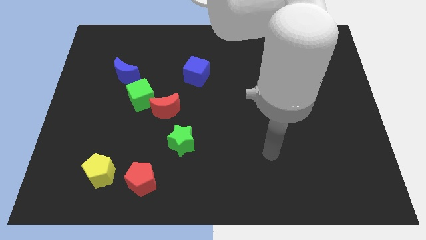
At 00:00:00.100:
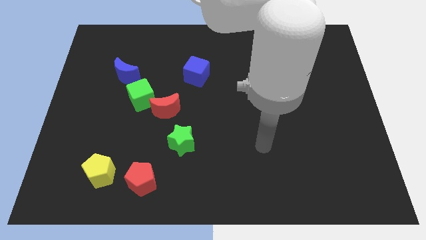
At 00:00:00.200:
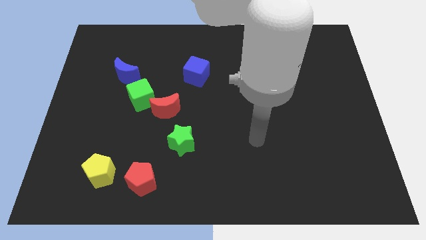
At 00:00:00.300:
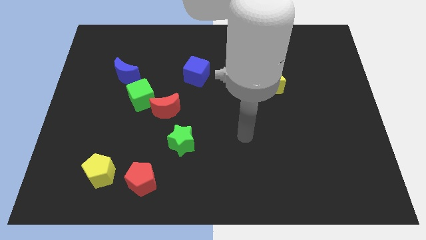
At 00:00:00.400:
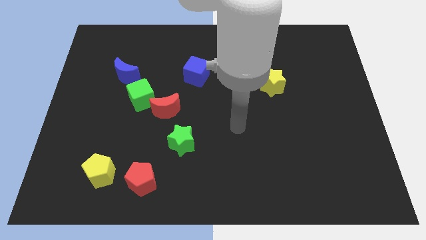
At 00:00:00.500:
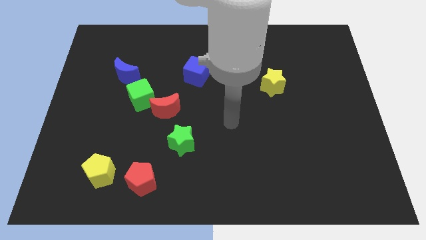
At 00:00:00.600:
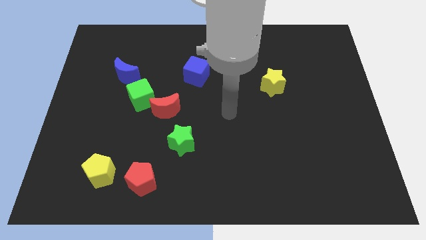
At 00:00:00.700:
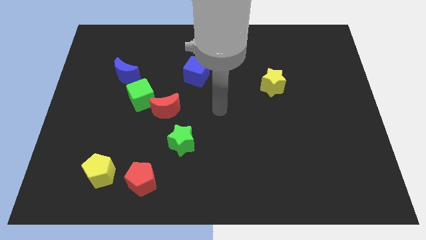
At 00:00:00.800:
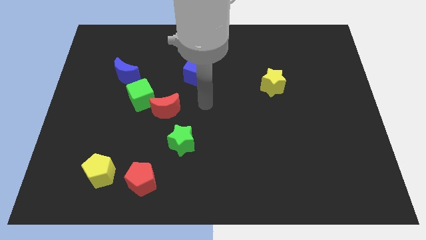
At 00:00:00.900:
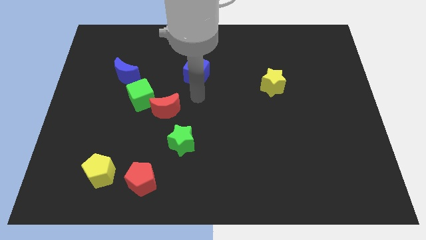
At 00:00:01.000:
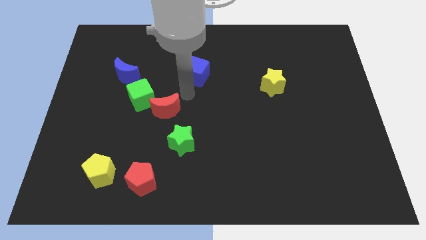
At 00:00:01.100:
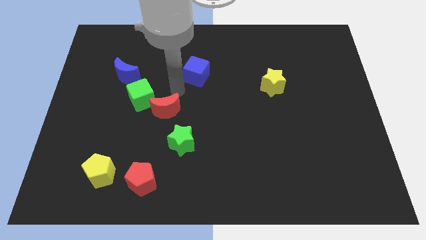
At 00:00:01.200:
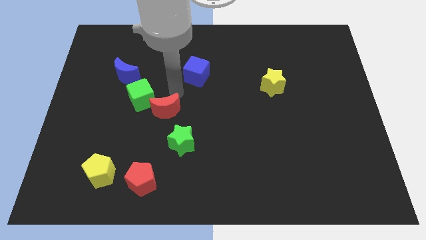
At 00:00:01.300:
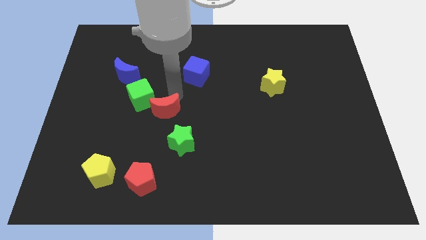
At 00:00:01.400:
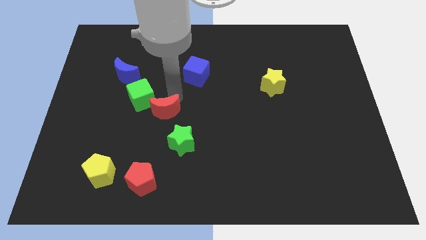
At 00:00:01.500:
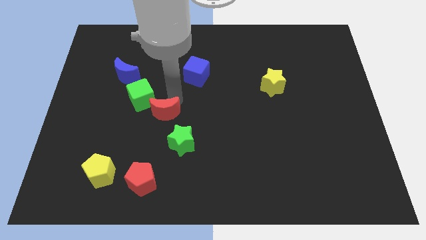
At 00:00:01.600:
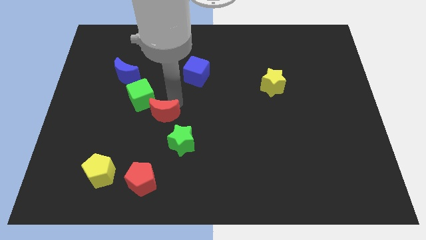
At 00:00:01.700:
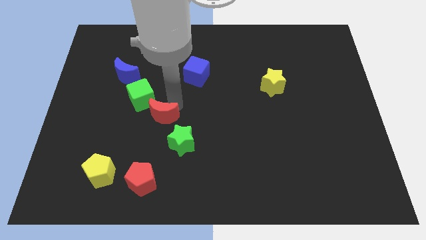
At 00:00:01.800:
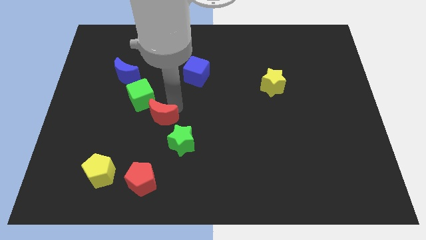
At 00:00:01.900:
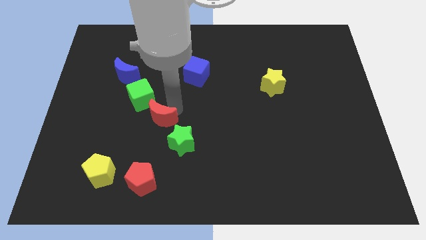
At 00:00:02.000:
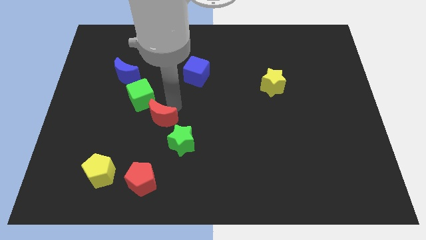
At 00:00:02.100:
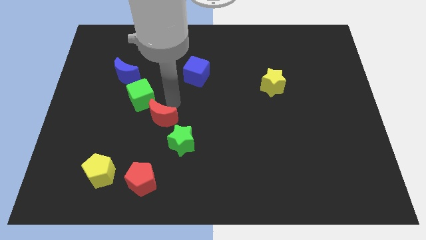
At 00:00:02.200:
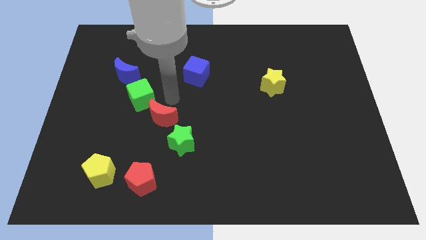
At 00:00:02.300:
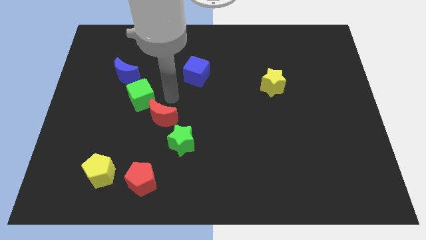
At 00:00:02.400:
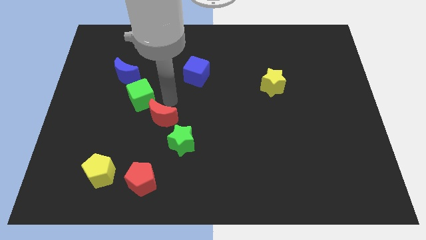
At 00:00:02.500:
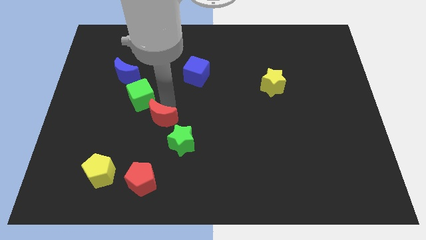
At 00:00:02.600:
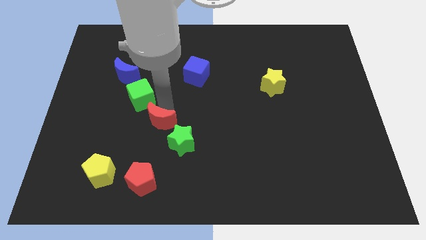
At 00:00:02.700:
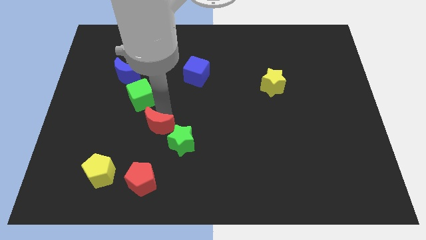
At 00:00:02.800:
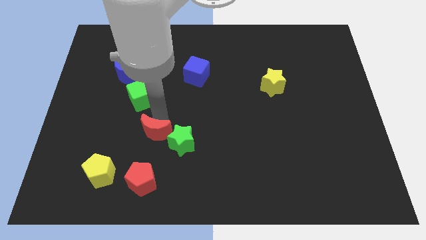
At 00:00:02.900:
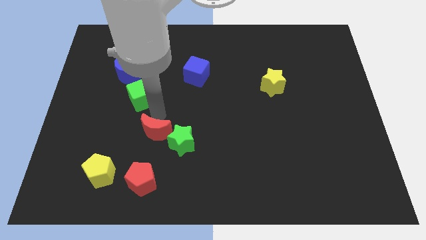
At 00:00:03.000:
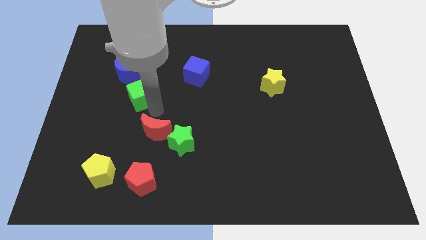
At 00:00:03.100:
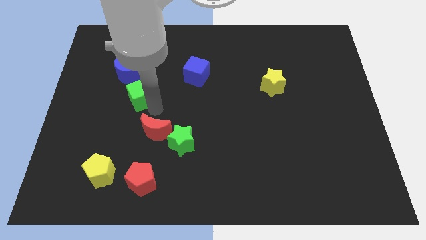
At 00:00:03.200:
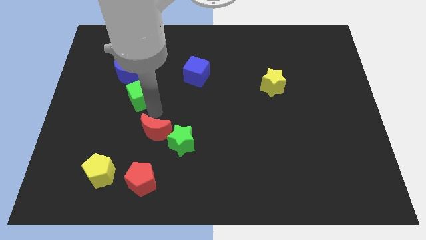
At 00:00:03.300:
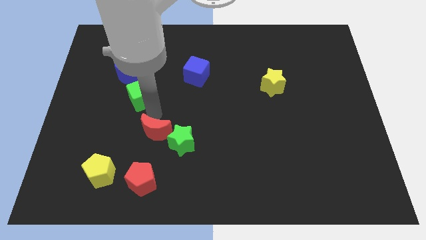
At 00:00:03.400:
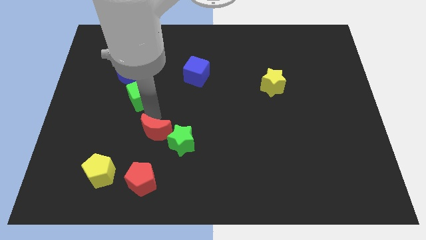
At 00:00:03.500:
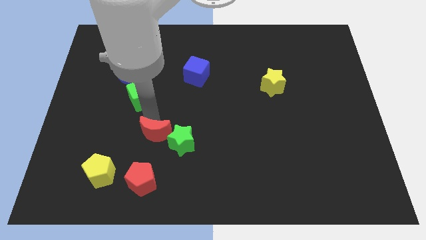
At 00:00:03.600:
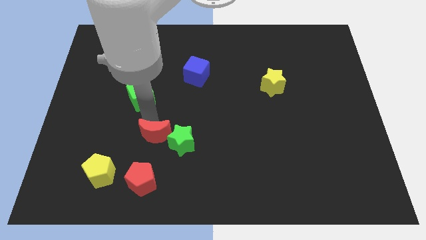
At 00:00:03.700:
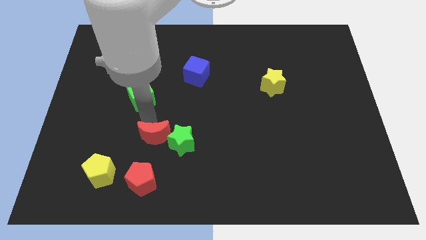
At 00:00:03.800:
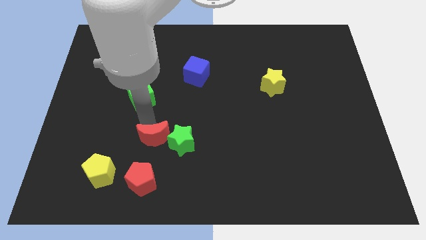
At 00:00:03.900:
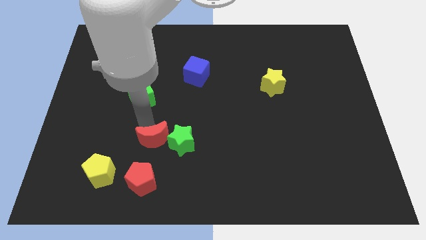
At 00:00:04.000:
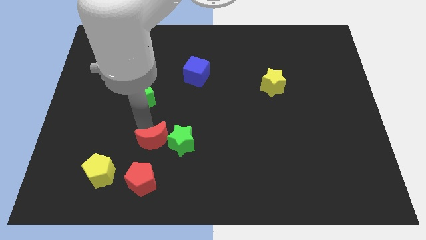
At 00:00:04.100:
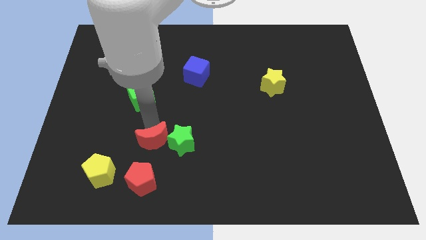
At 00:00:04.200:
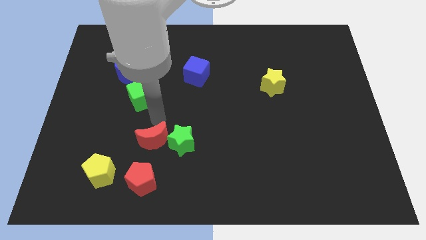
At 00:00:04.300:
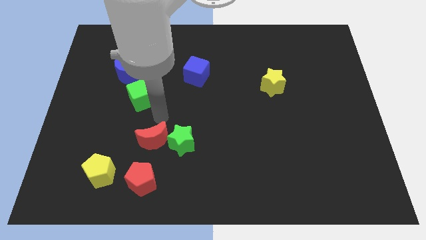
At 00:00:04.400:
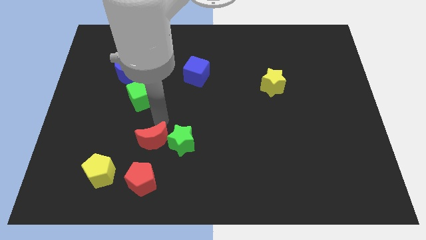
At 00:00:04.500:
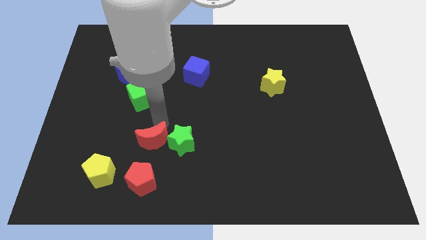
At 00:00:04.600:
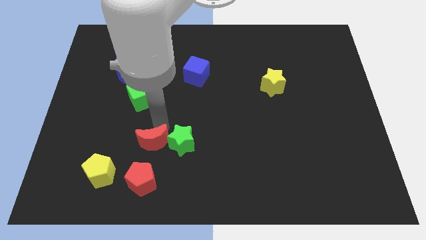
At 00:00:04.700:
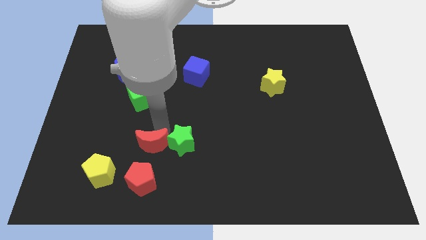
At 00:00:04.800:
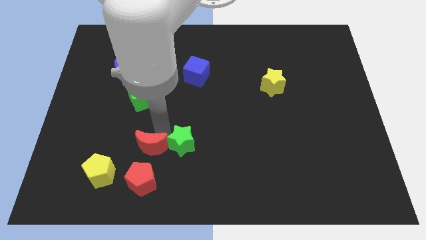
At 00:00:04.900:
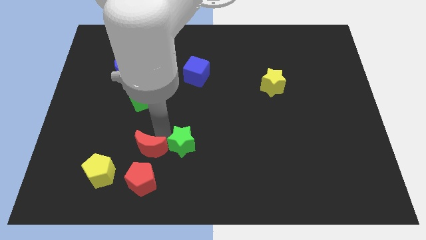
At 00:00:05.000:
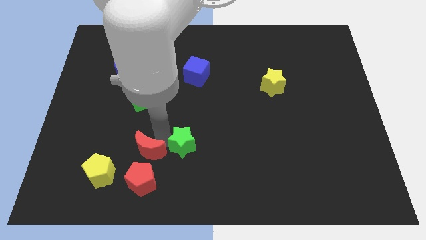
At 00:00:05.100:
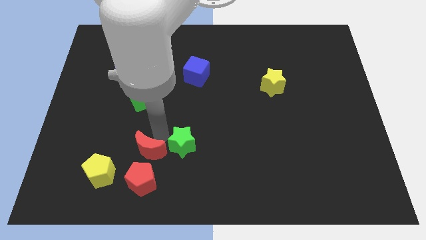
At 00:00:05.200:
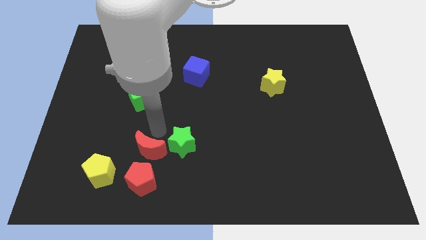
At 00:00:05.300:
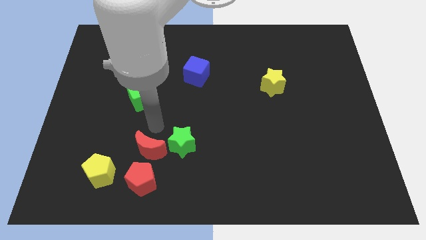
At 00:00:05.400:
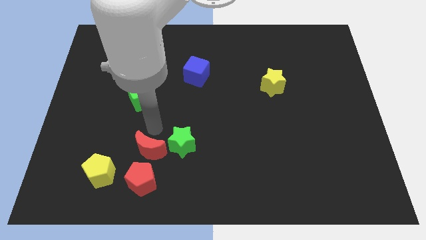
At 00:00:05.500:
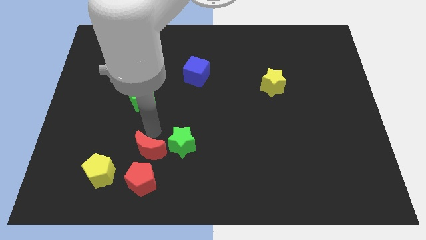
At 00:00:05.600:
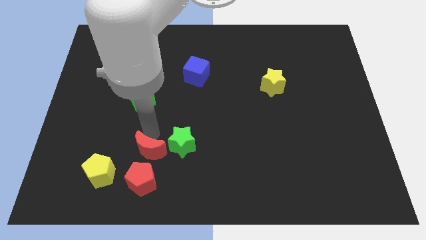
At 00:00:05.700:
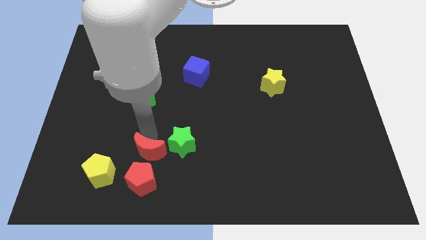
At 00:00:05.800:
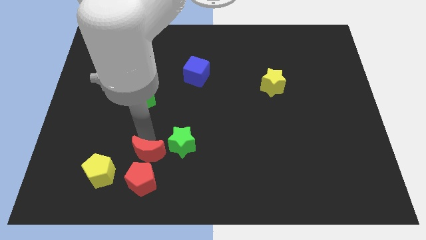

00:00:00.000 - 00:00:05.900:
put the red moon close to the red pentagon
